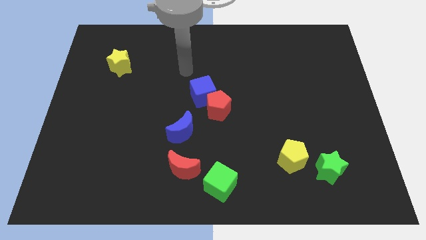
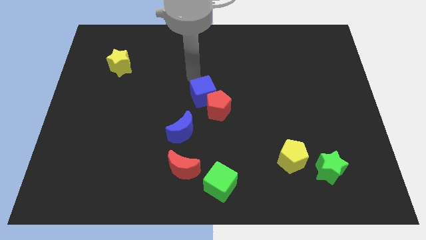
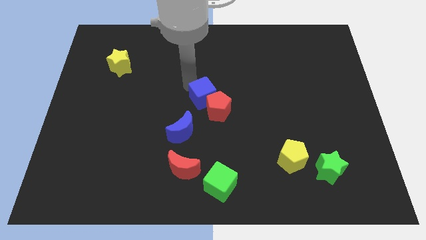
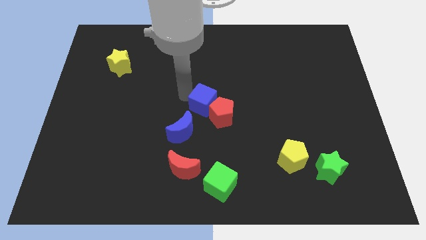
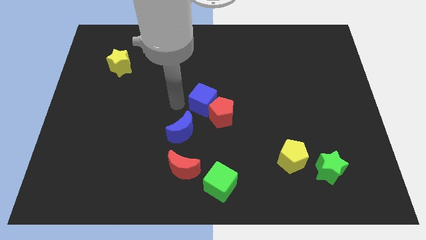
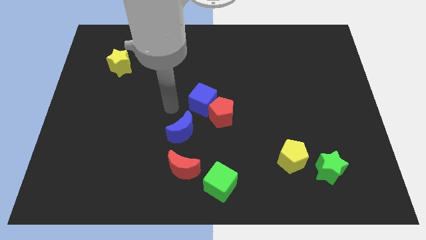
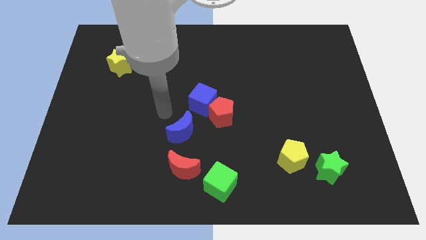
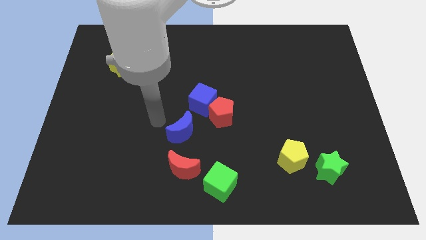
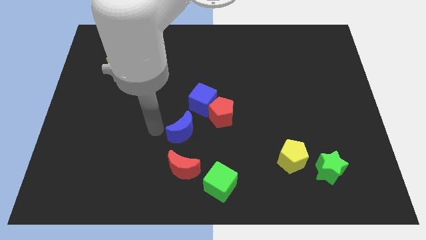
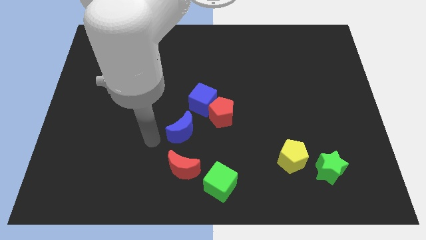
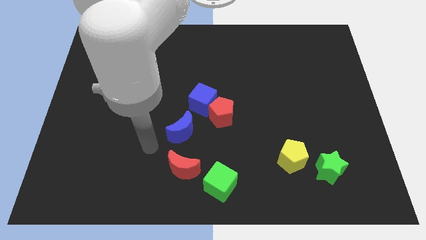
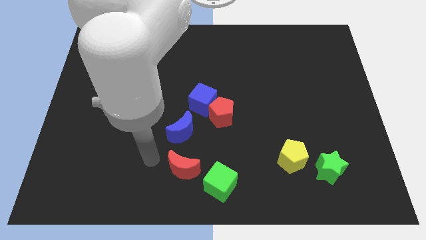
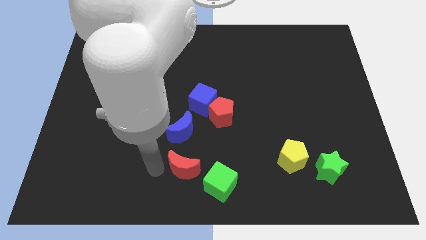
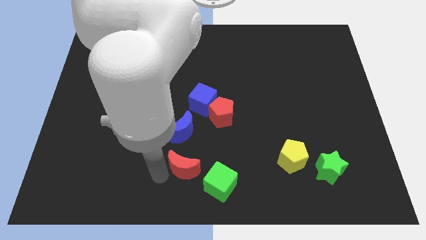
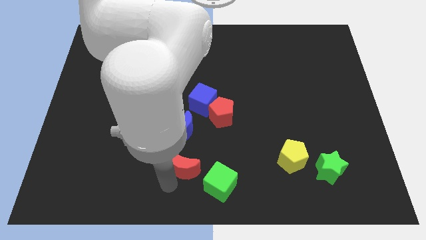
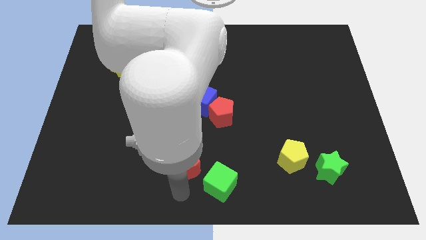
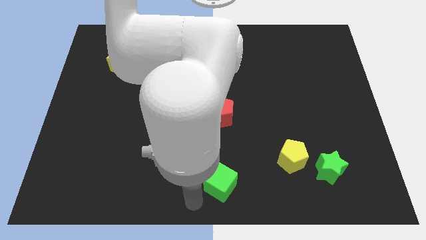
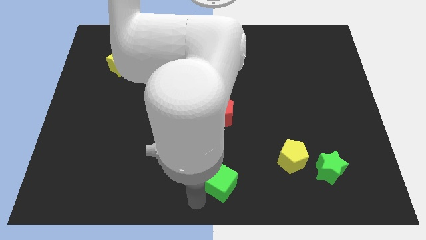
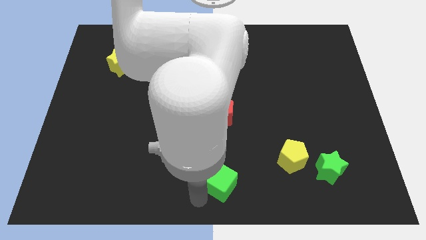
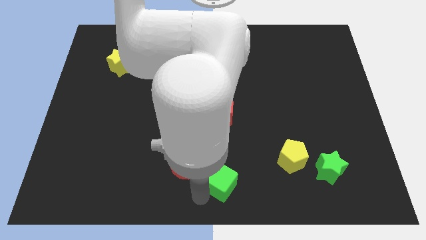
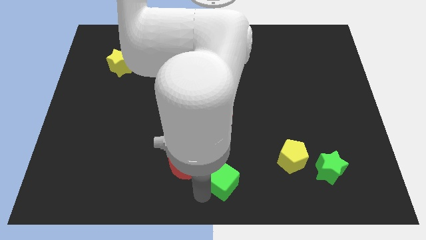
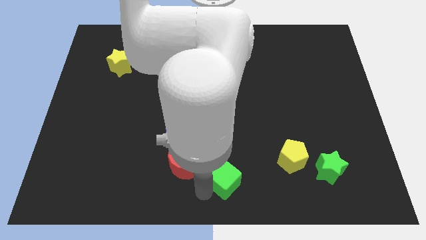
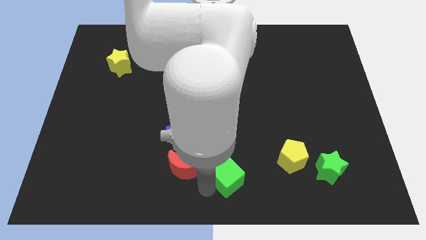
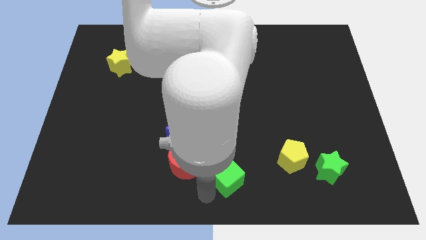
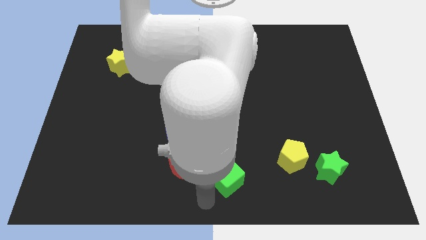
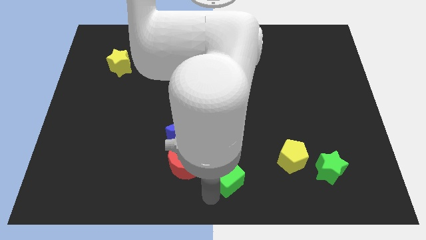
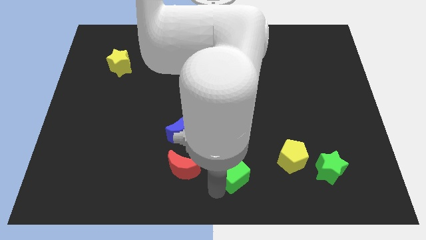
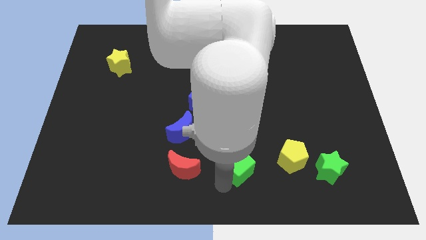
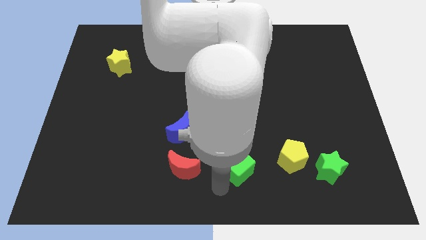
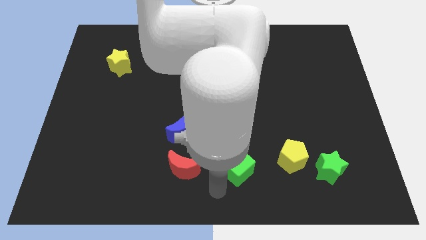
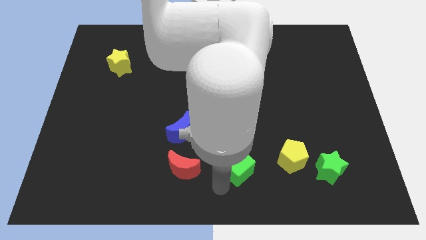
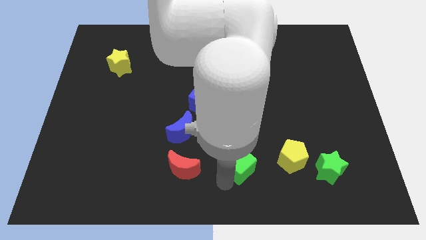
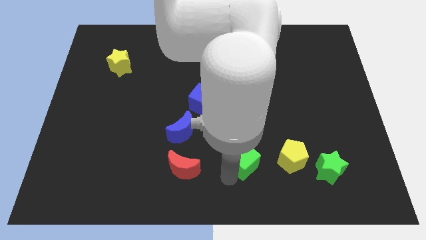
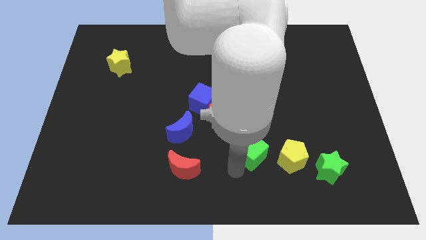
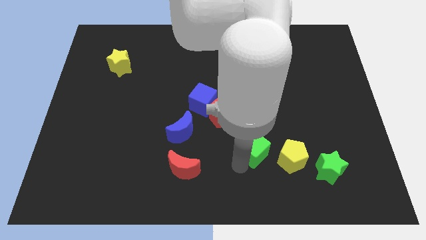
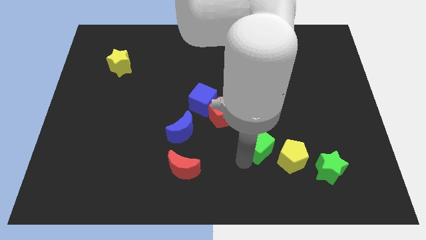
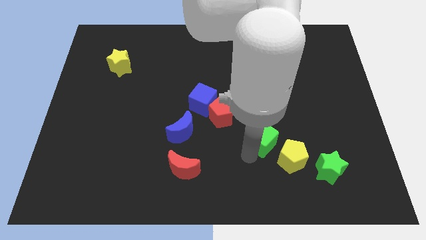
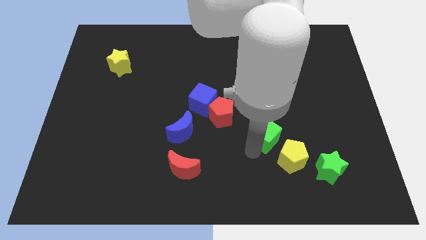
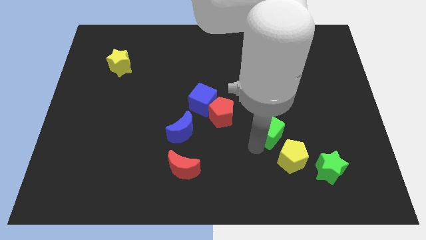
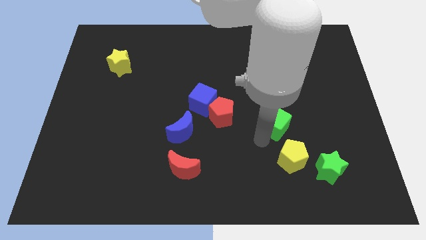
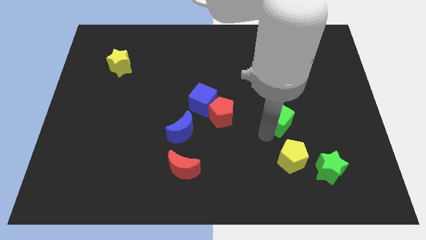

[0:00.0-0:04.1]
slide the green cube up and right

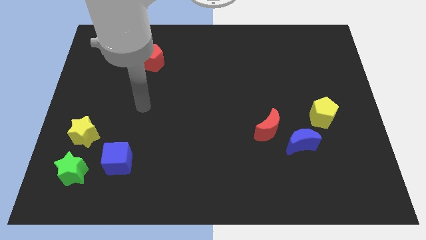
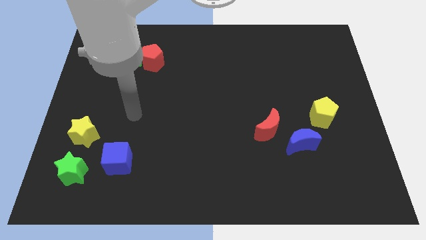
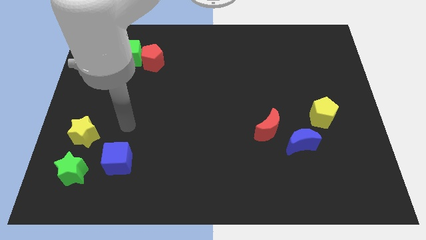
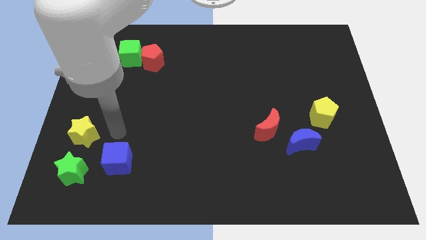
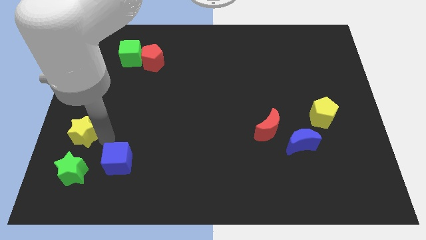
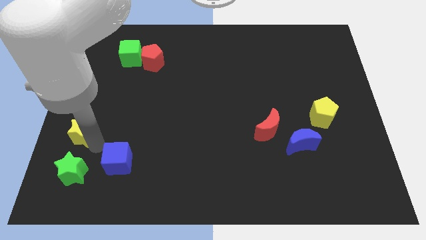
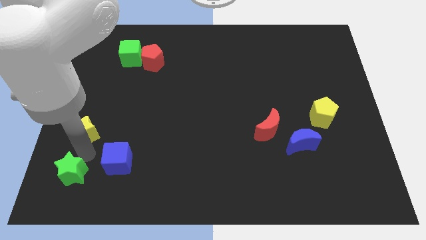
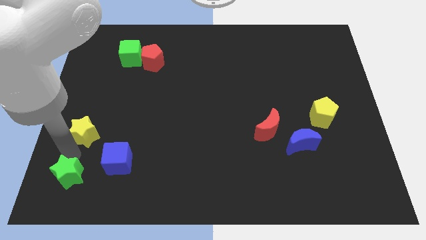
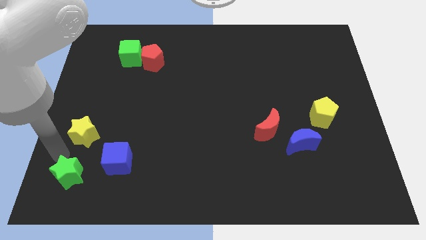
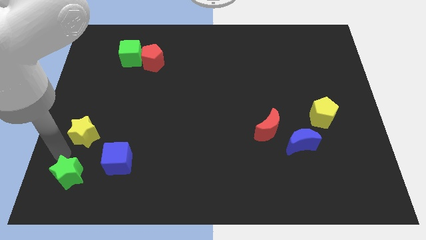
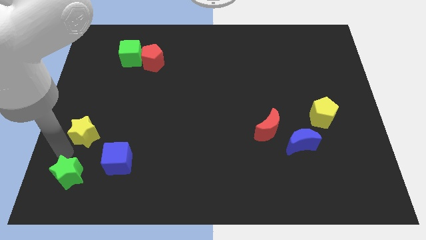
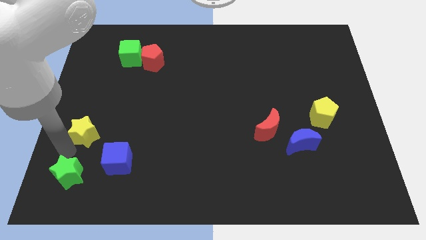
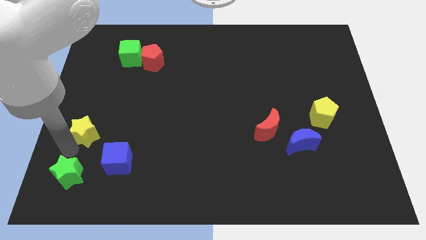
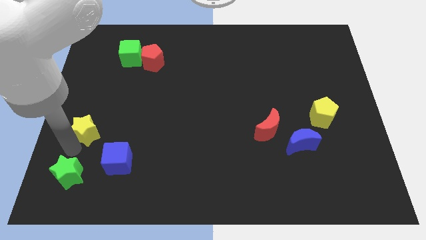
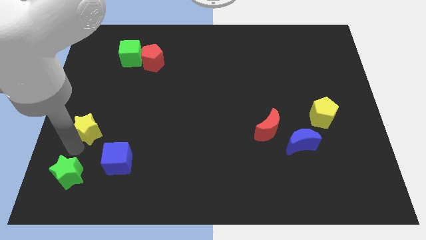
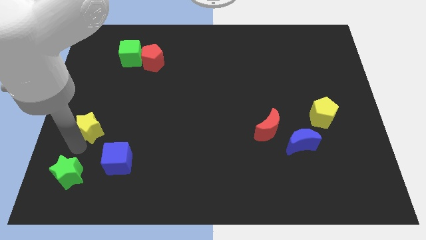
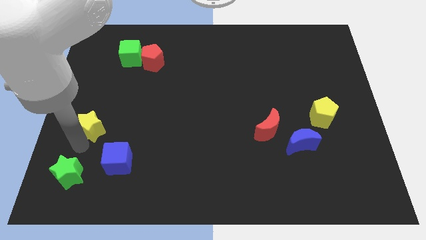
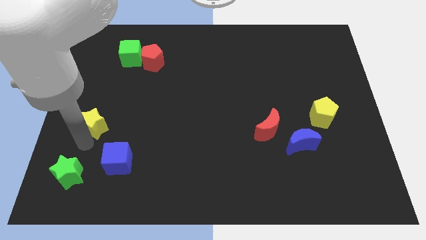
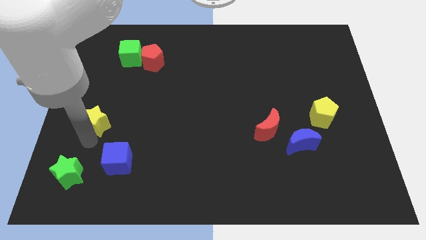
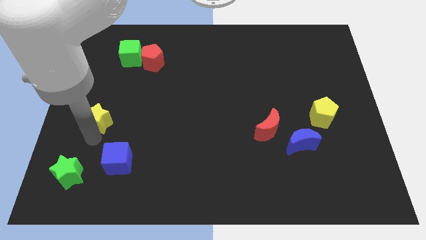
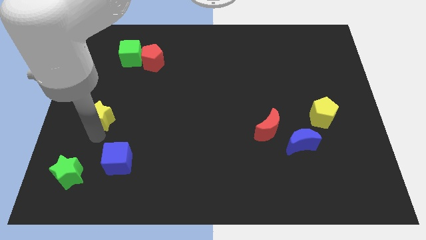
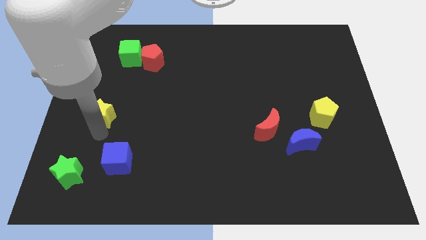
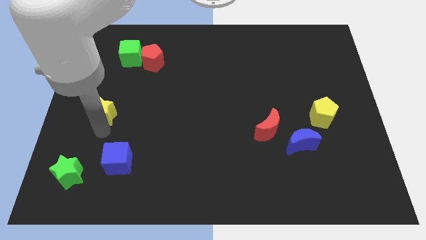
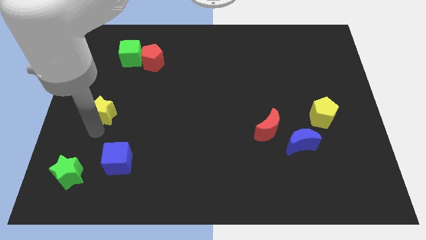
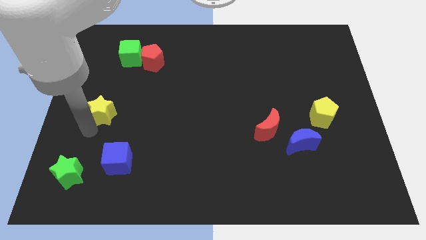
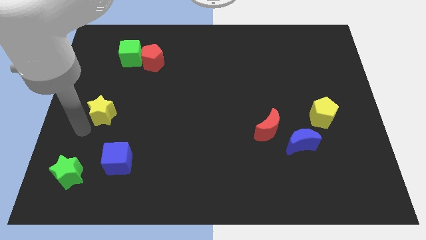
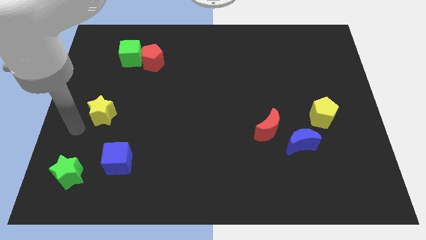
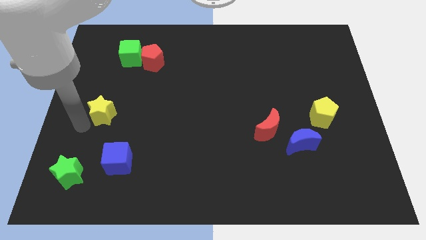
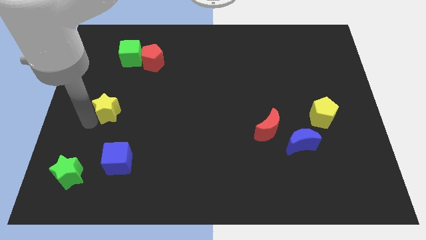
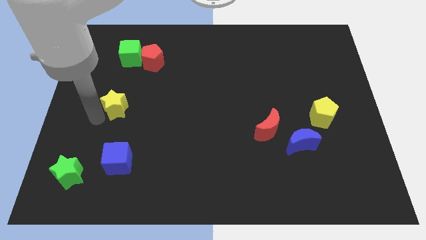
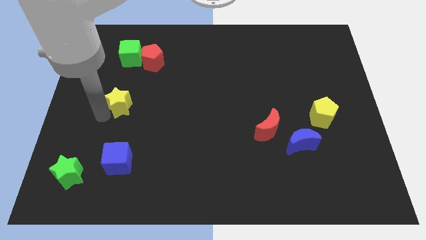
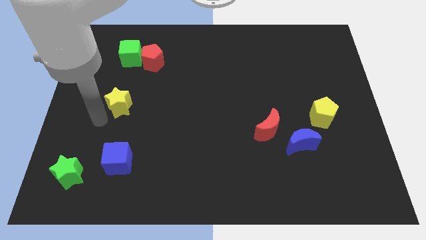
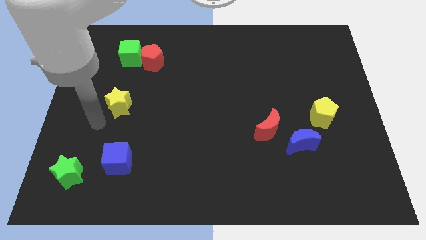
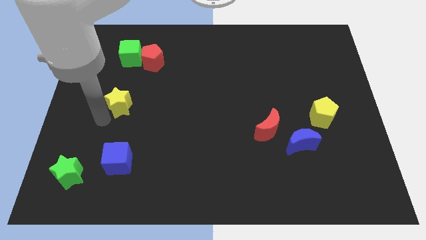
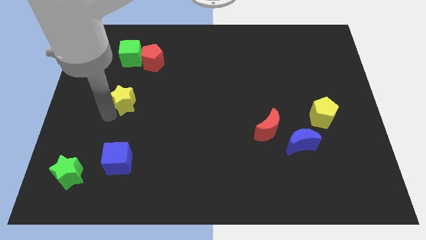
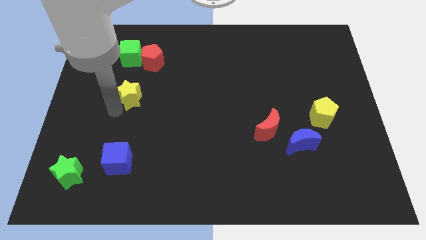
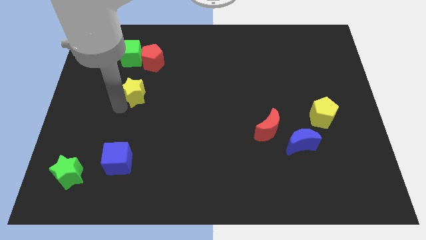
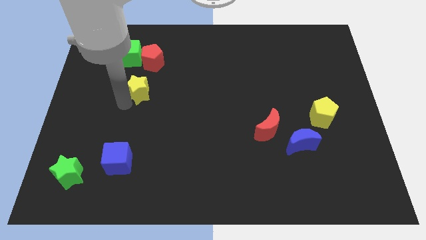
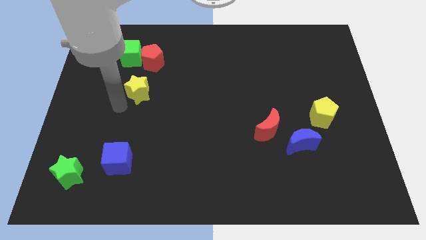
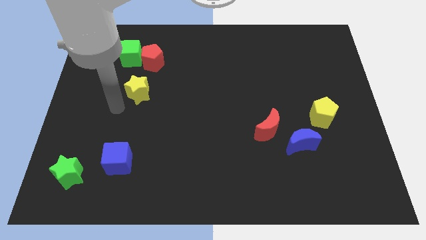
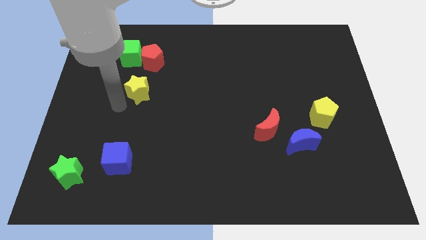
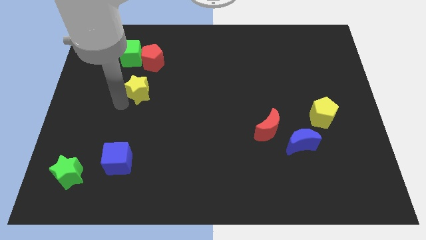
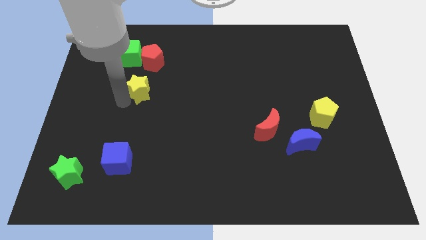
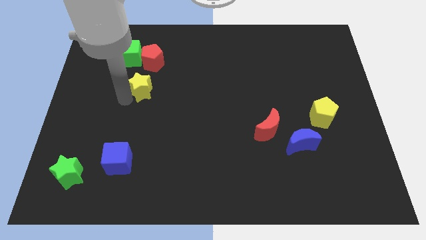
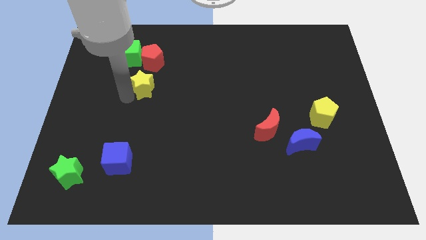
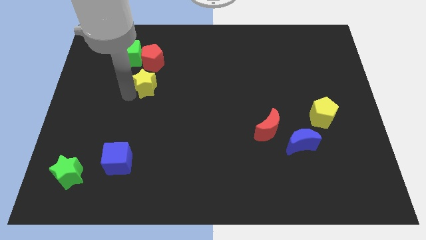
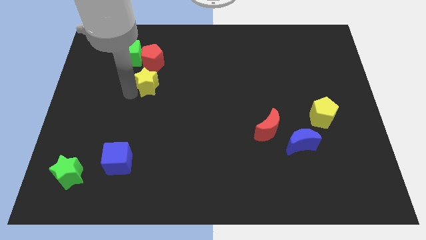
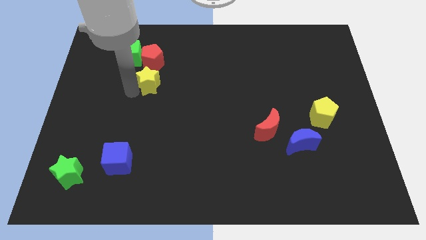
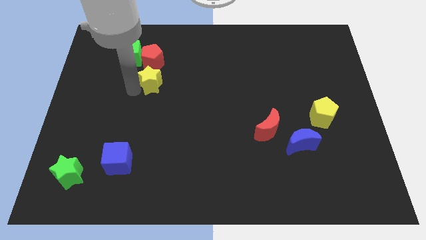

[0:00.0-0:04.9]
push the yellow star upwards and then right
